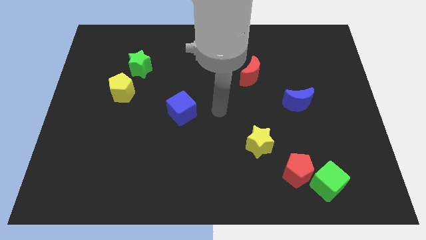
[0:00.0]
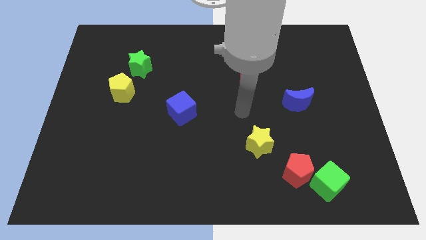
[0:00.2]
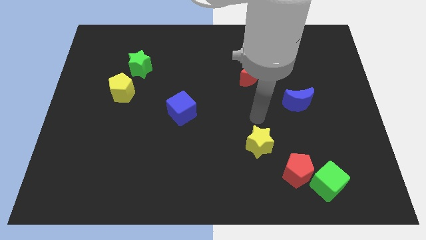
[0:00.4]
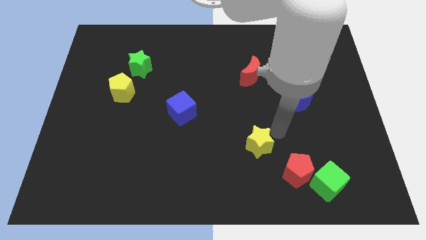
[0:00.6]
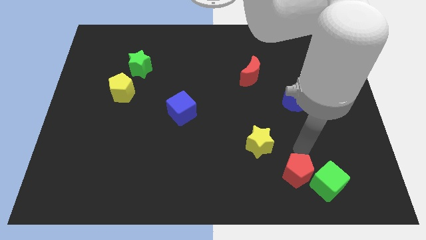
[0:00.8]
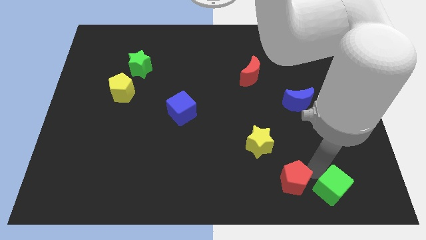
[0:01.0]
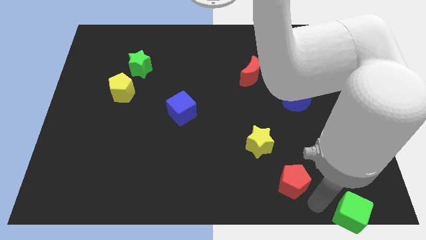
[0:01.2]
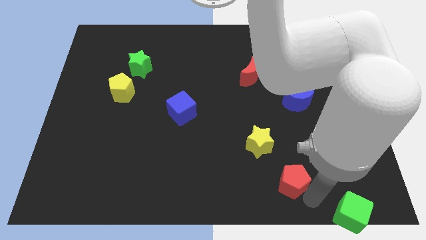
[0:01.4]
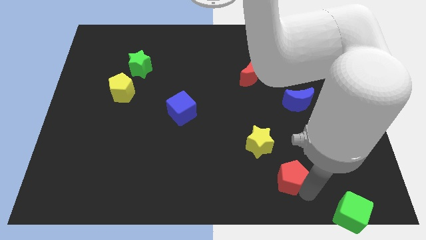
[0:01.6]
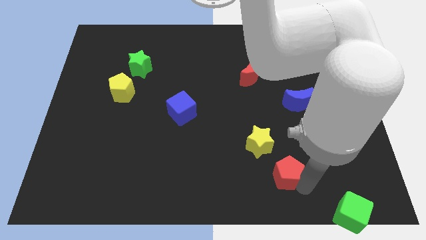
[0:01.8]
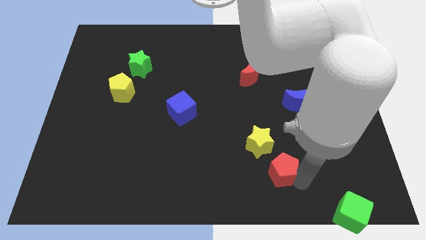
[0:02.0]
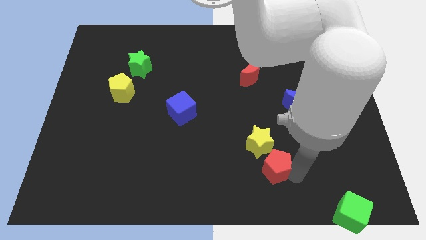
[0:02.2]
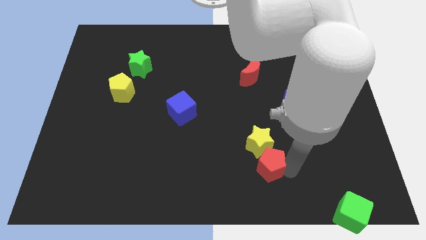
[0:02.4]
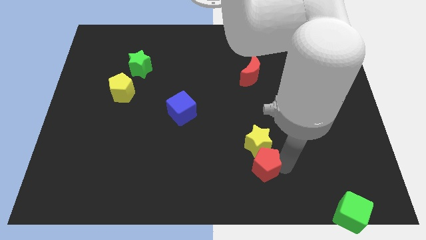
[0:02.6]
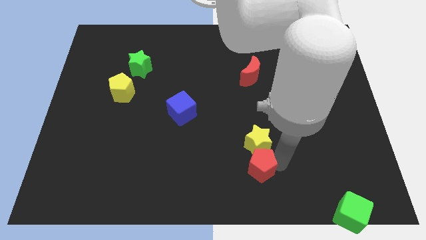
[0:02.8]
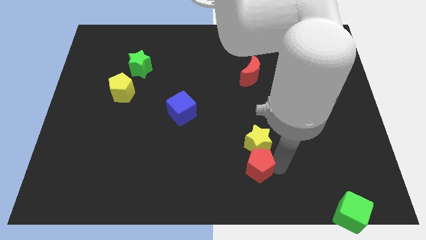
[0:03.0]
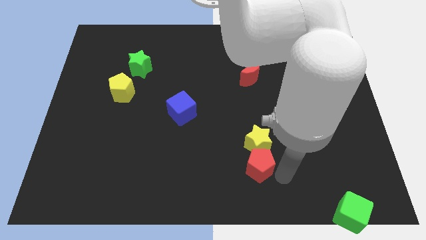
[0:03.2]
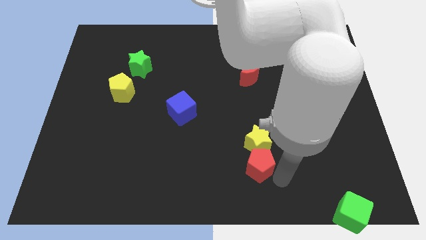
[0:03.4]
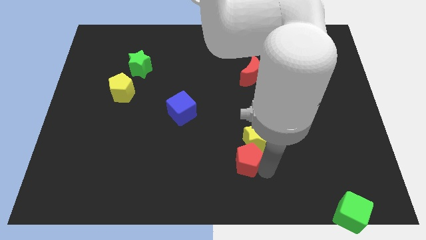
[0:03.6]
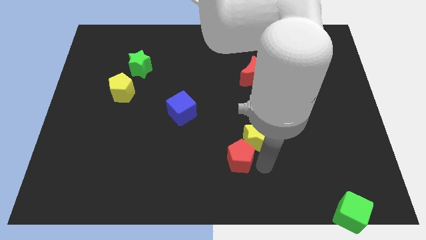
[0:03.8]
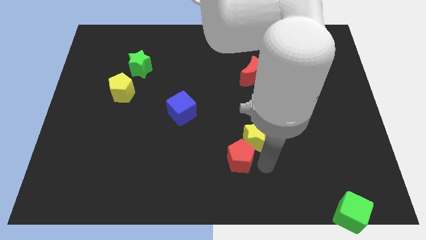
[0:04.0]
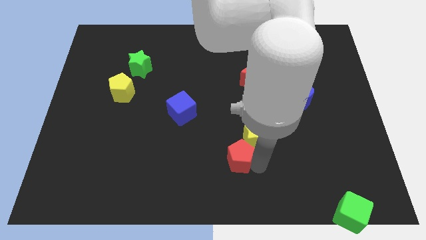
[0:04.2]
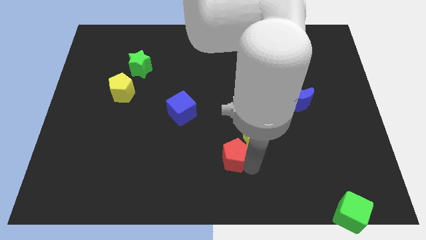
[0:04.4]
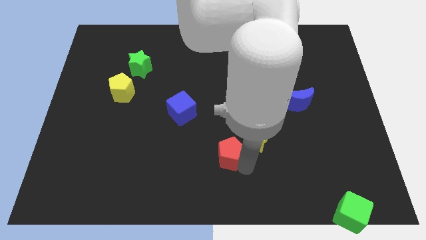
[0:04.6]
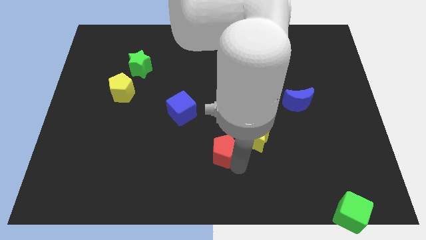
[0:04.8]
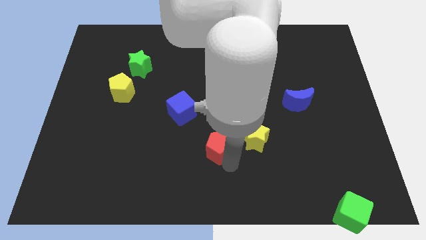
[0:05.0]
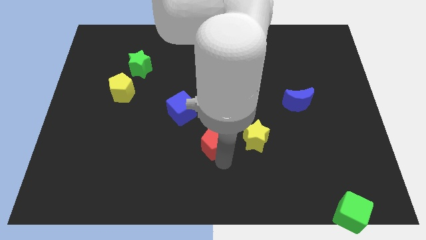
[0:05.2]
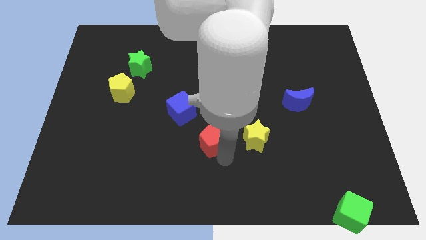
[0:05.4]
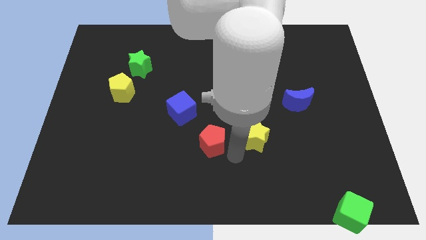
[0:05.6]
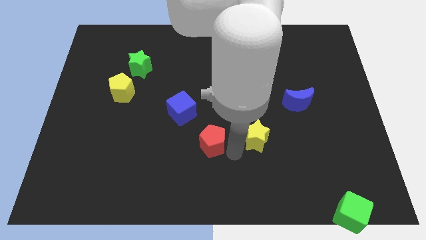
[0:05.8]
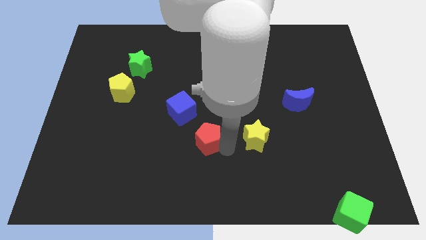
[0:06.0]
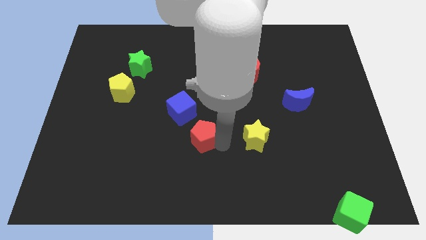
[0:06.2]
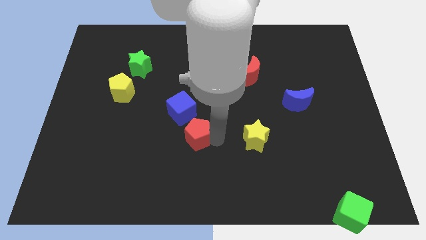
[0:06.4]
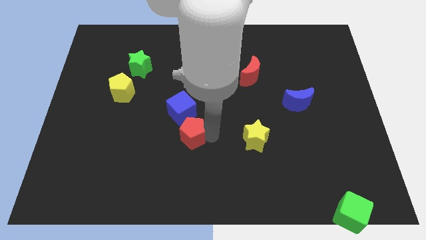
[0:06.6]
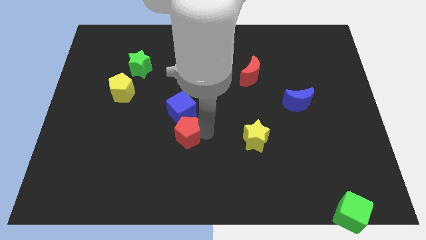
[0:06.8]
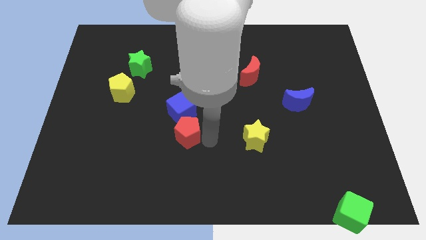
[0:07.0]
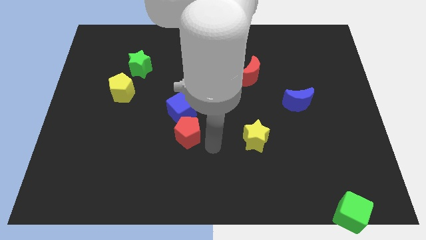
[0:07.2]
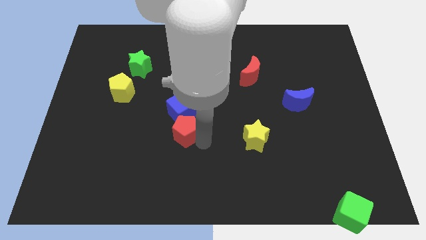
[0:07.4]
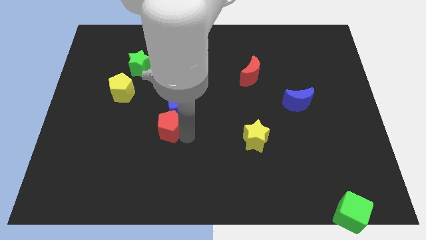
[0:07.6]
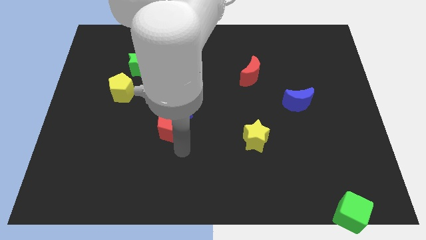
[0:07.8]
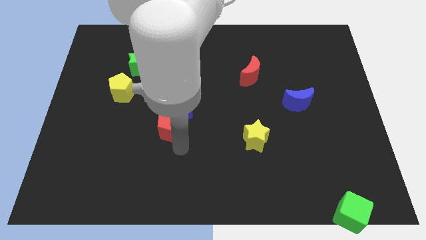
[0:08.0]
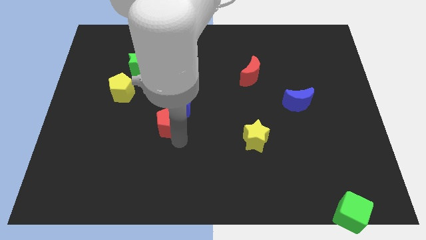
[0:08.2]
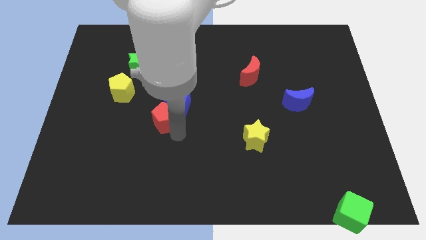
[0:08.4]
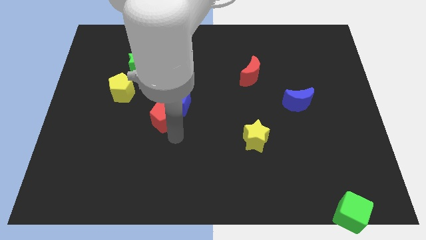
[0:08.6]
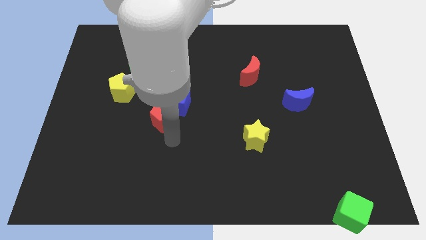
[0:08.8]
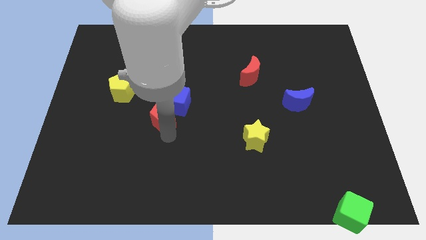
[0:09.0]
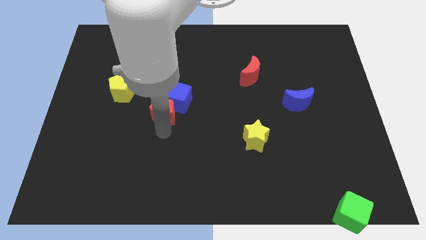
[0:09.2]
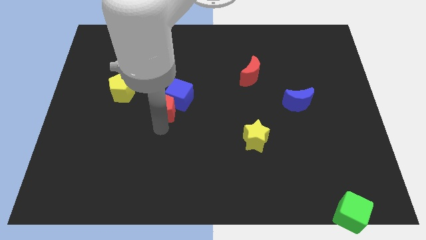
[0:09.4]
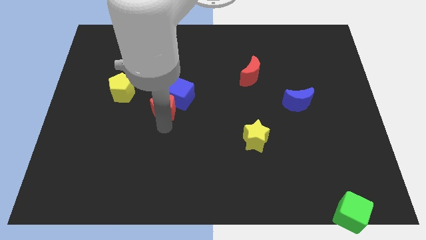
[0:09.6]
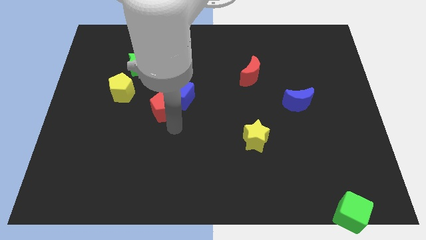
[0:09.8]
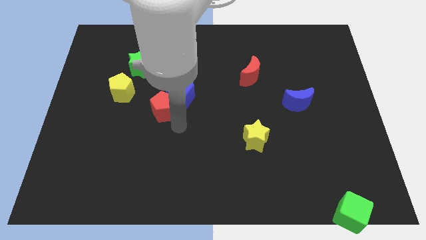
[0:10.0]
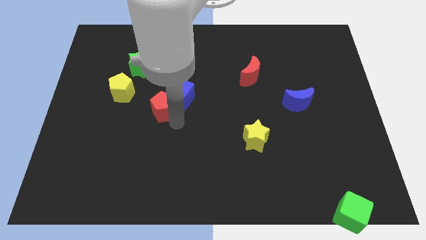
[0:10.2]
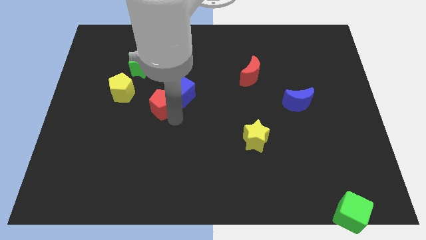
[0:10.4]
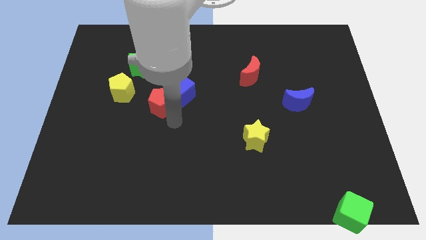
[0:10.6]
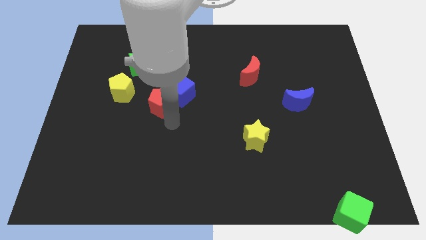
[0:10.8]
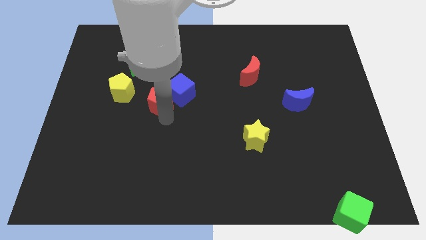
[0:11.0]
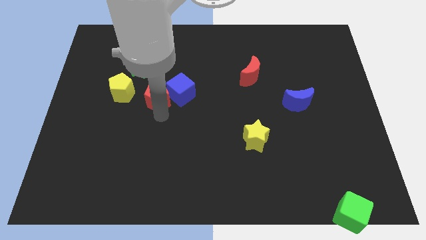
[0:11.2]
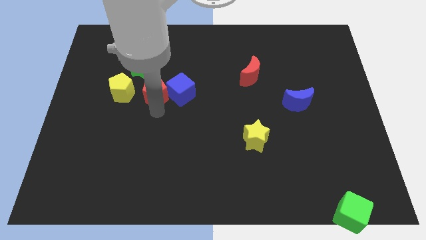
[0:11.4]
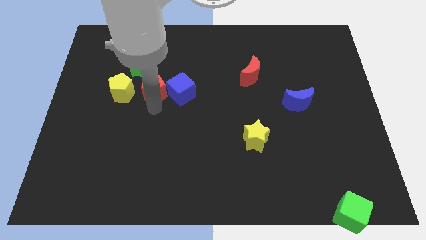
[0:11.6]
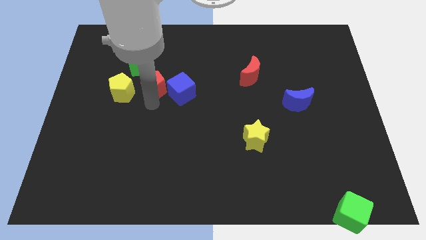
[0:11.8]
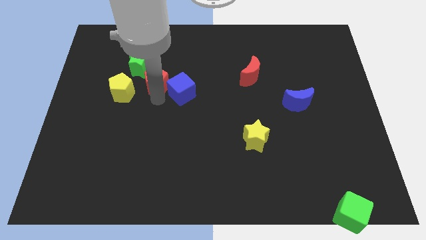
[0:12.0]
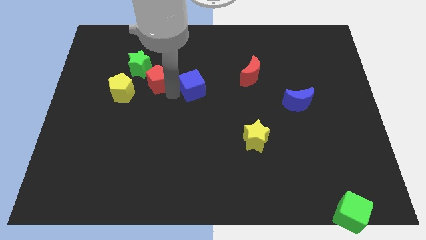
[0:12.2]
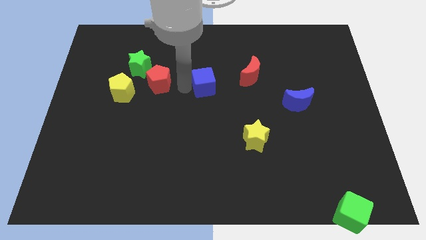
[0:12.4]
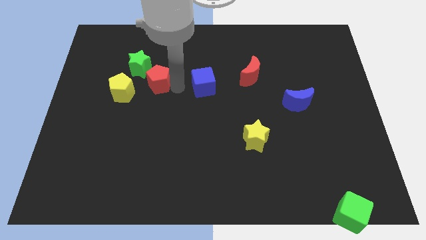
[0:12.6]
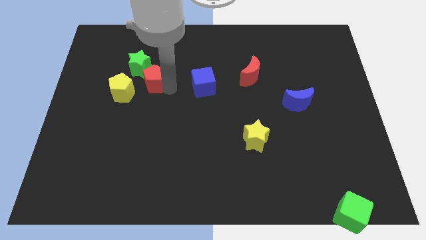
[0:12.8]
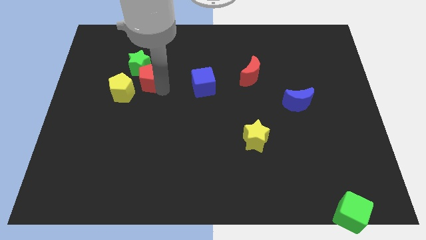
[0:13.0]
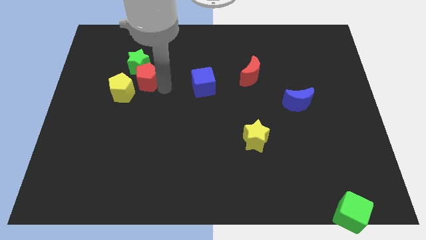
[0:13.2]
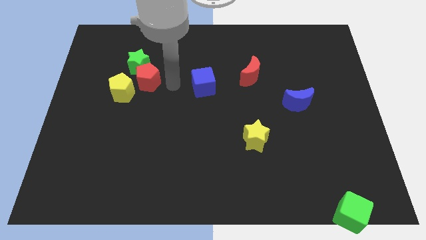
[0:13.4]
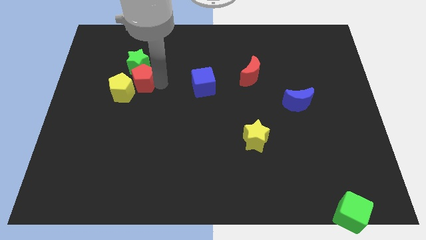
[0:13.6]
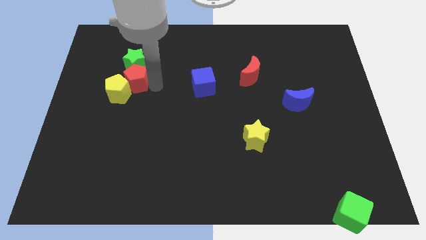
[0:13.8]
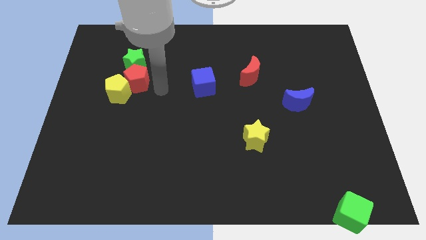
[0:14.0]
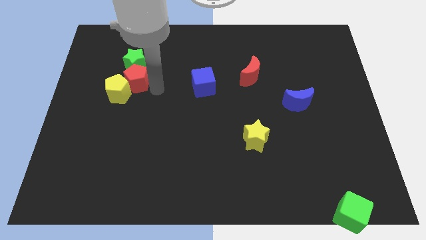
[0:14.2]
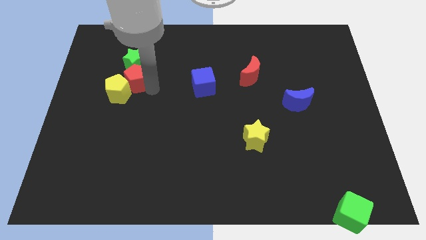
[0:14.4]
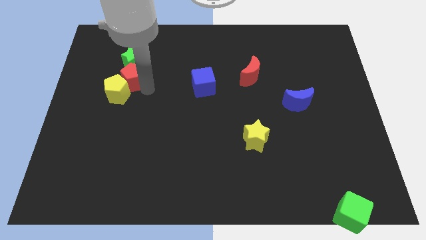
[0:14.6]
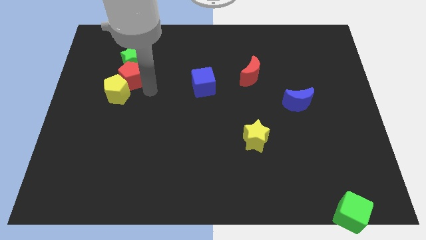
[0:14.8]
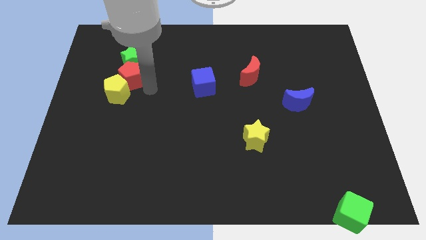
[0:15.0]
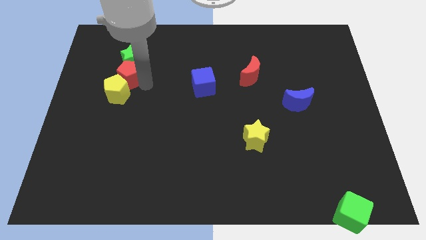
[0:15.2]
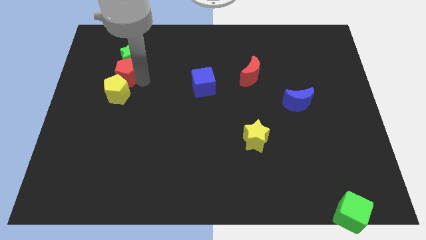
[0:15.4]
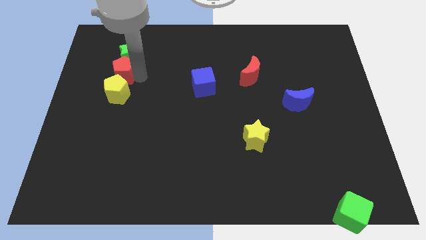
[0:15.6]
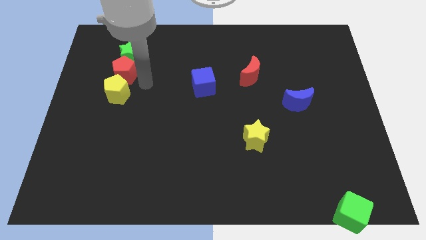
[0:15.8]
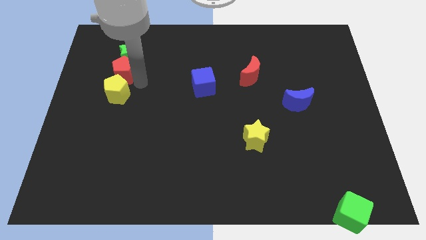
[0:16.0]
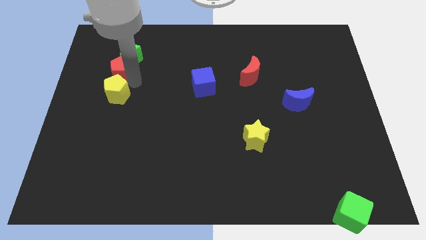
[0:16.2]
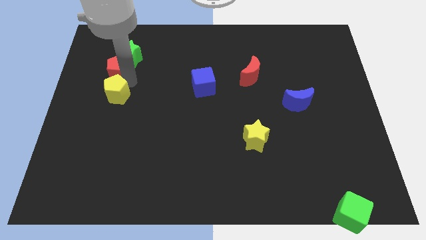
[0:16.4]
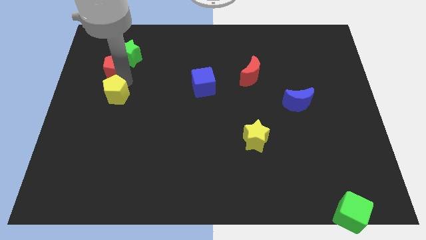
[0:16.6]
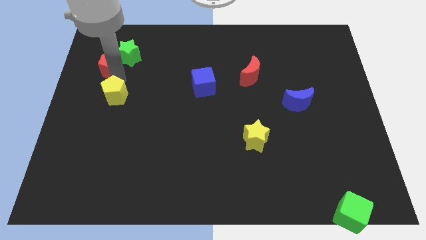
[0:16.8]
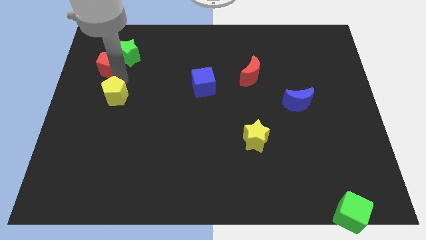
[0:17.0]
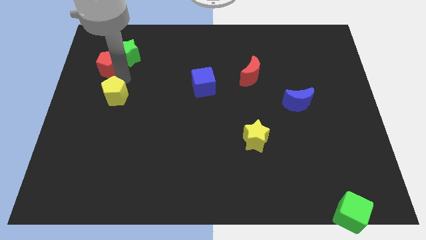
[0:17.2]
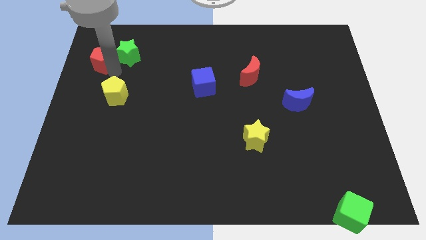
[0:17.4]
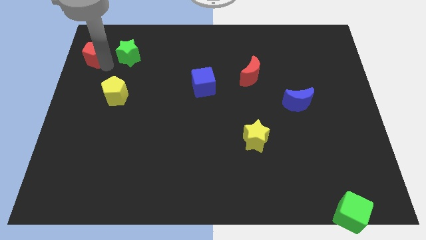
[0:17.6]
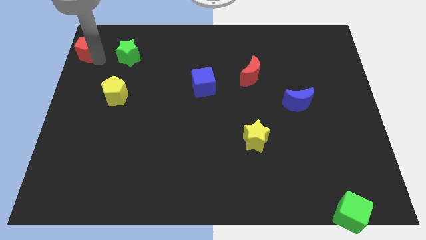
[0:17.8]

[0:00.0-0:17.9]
move the red pentagon to the top left corner
